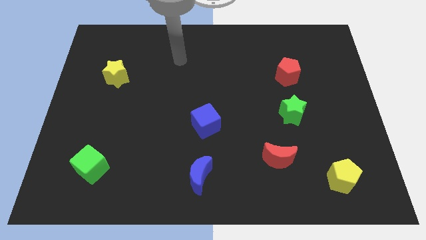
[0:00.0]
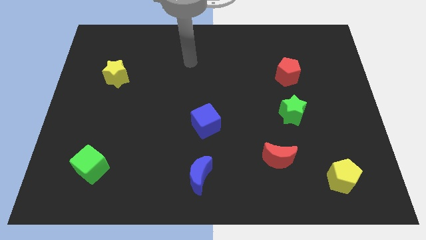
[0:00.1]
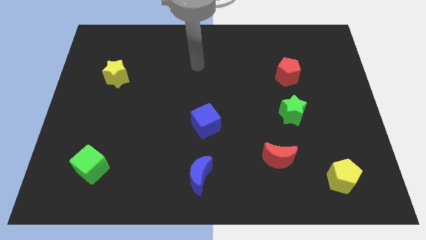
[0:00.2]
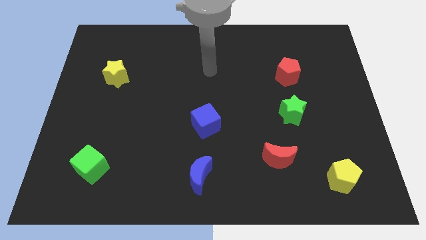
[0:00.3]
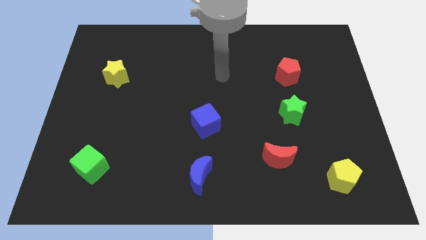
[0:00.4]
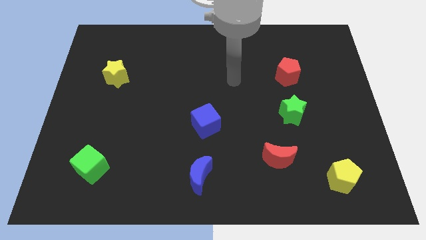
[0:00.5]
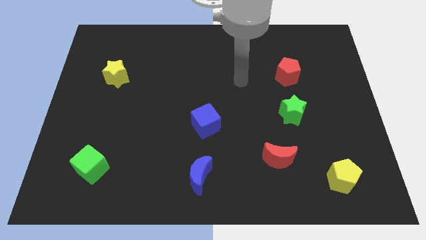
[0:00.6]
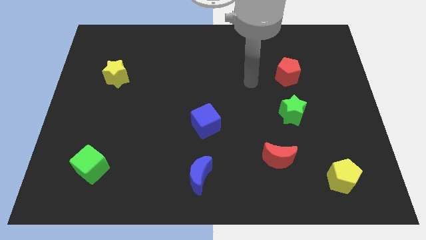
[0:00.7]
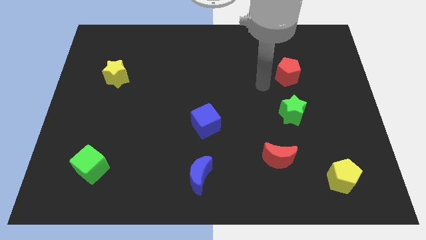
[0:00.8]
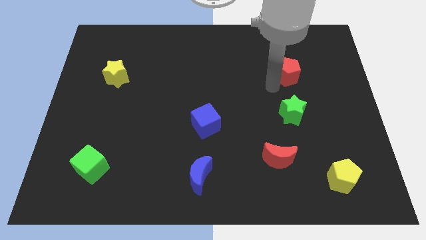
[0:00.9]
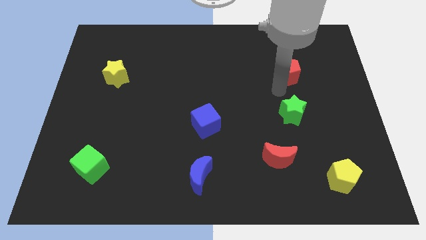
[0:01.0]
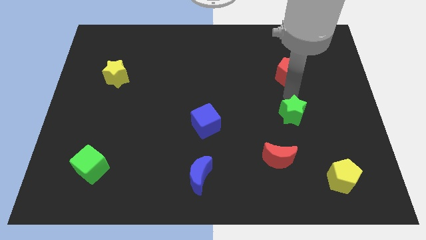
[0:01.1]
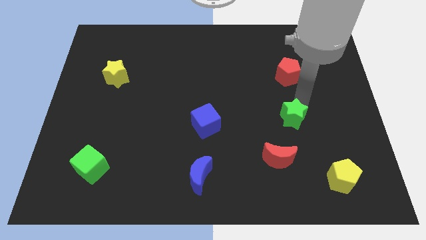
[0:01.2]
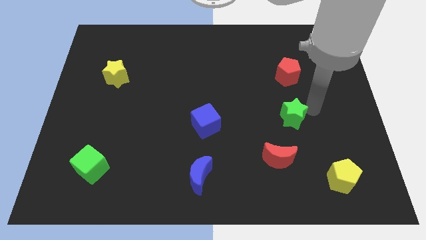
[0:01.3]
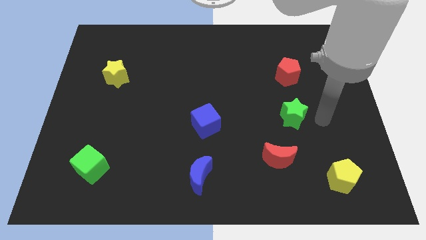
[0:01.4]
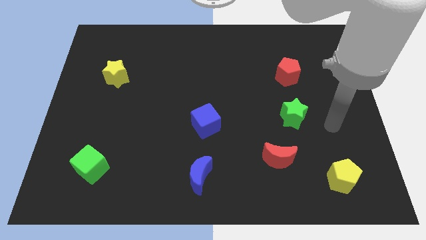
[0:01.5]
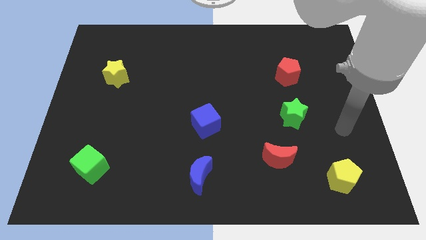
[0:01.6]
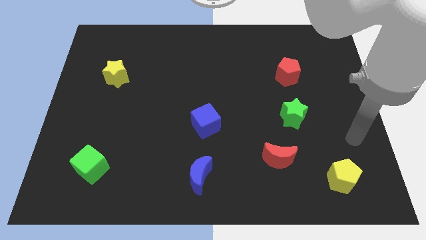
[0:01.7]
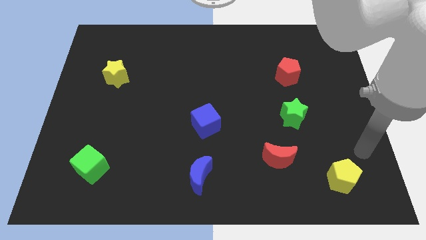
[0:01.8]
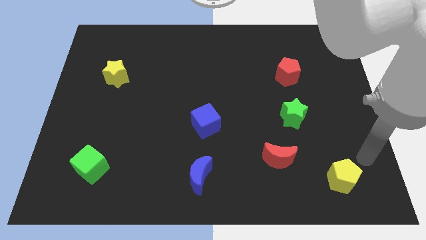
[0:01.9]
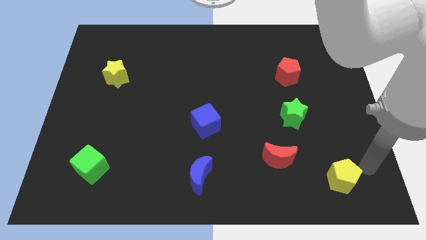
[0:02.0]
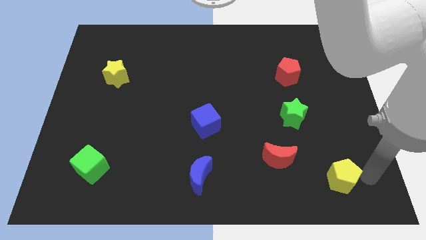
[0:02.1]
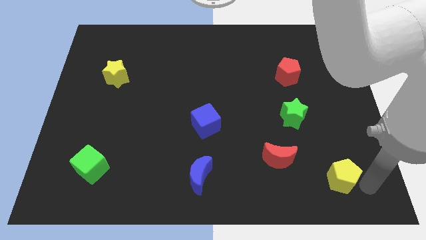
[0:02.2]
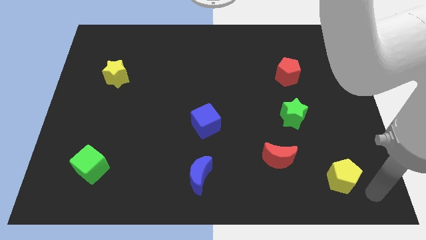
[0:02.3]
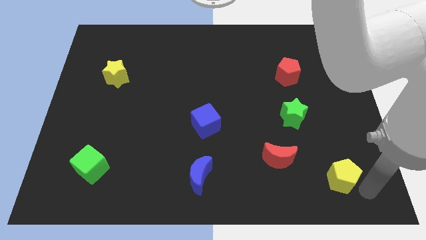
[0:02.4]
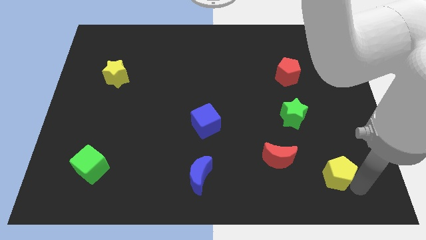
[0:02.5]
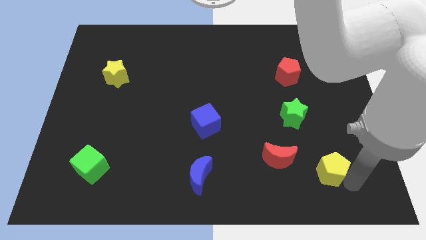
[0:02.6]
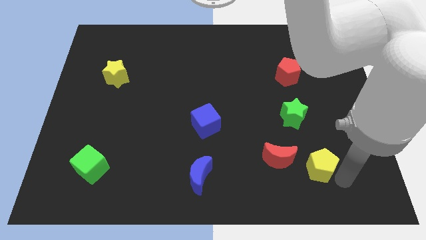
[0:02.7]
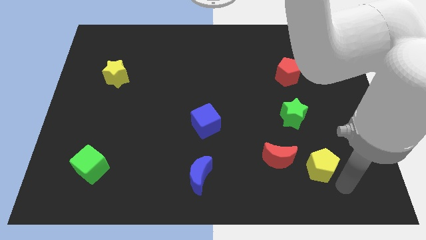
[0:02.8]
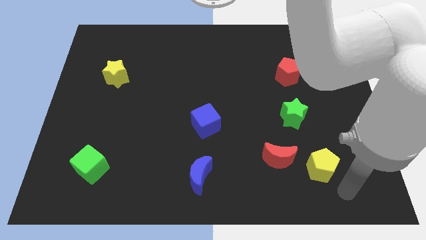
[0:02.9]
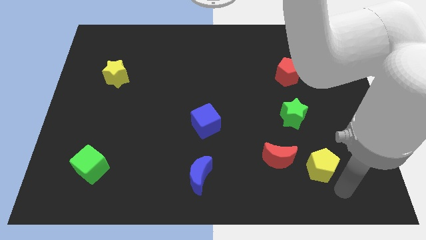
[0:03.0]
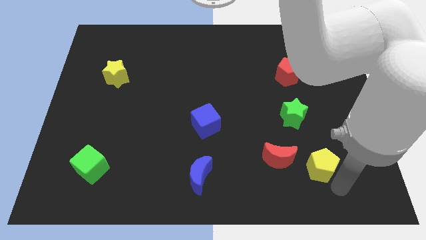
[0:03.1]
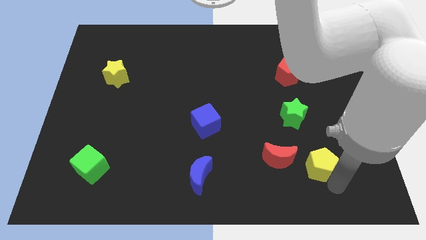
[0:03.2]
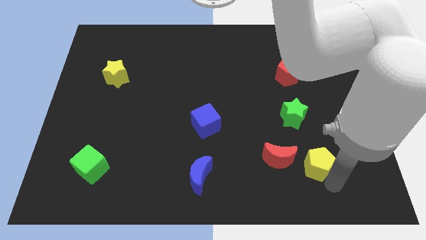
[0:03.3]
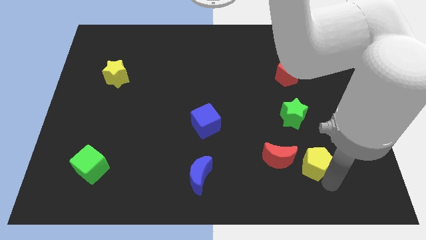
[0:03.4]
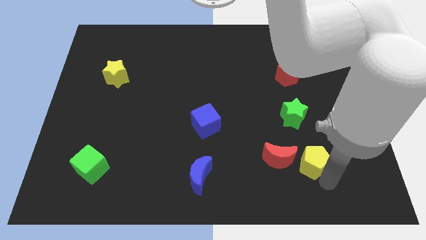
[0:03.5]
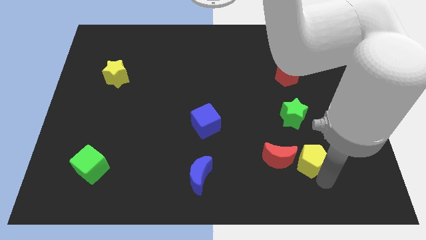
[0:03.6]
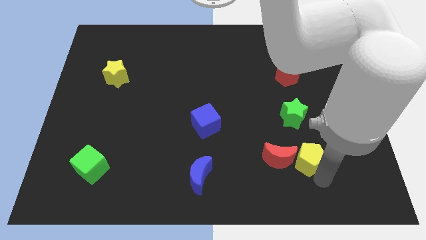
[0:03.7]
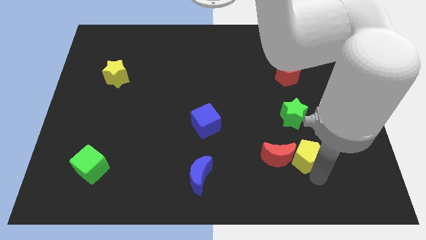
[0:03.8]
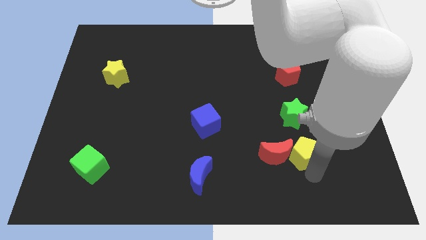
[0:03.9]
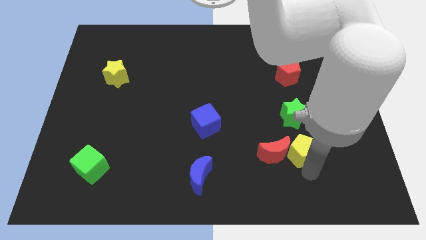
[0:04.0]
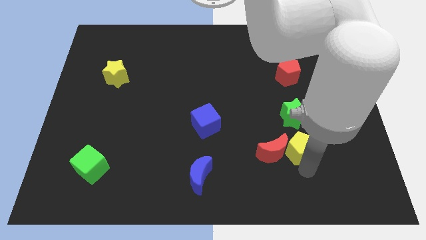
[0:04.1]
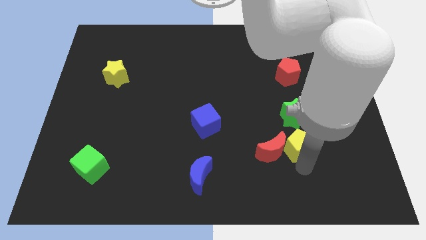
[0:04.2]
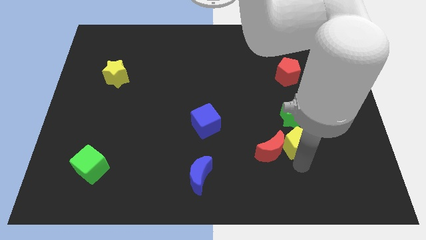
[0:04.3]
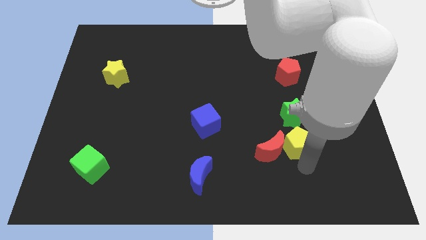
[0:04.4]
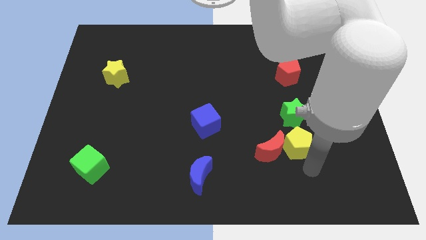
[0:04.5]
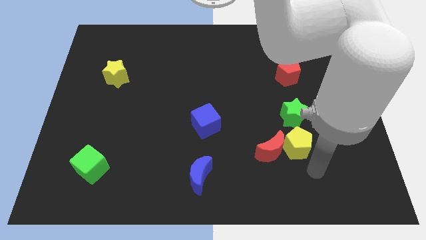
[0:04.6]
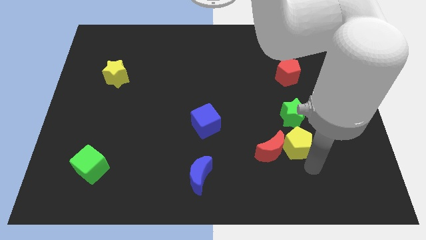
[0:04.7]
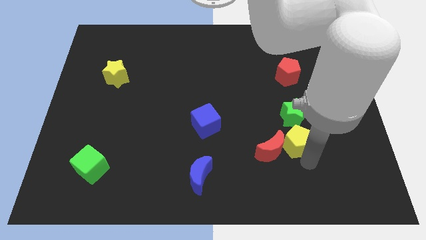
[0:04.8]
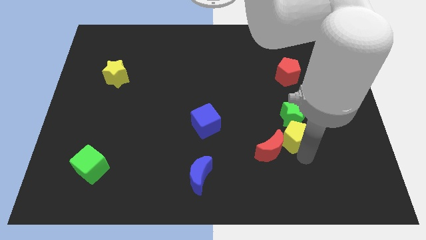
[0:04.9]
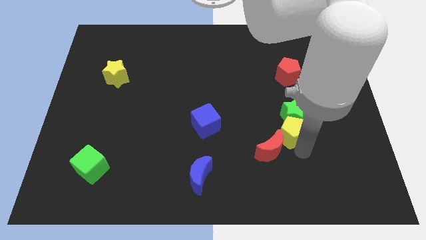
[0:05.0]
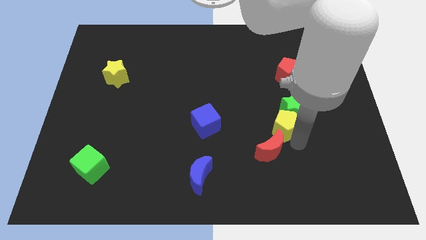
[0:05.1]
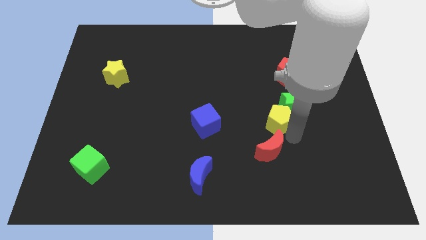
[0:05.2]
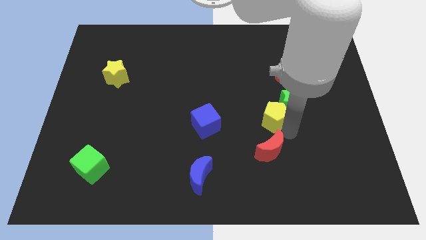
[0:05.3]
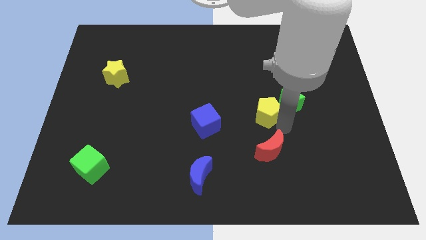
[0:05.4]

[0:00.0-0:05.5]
push the yellow pentagon upwards and to the left

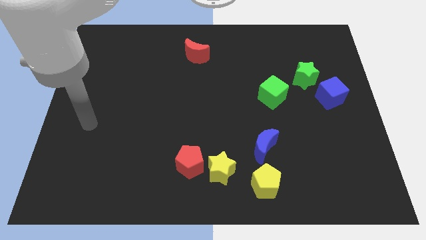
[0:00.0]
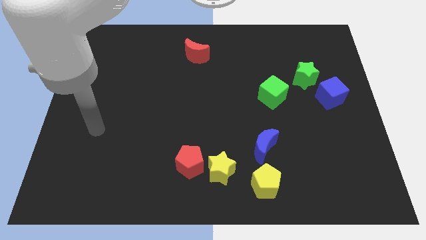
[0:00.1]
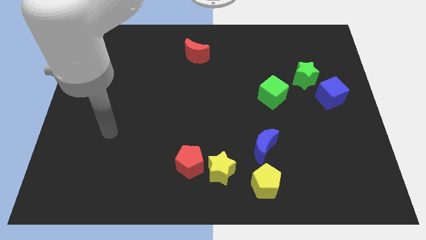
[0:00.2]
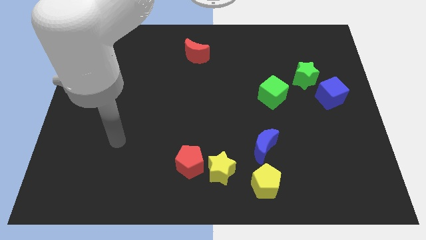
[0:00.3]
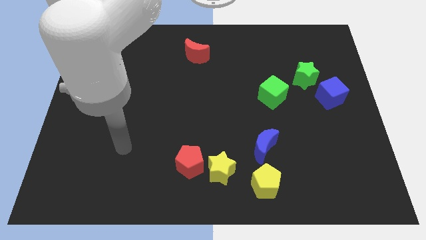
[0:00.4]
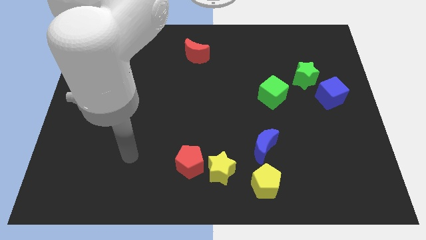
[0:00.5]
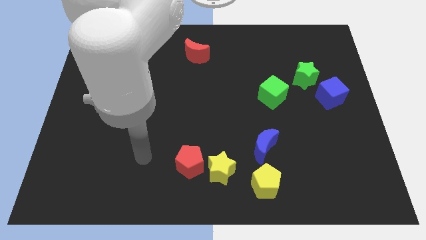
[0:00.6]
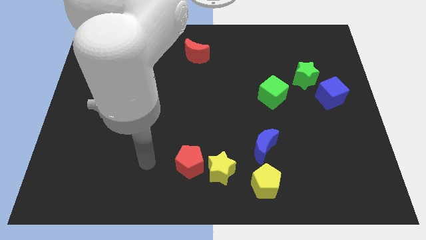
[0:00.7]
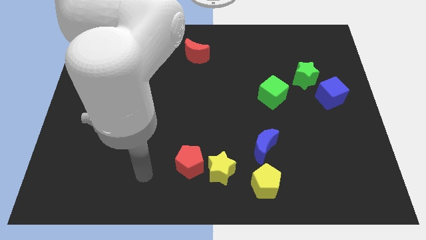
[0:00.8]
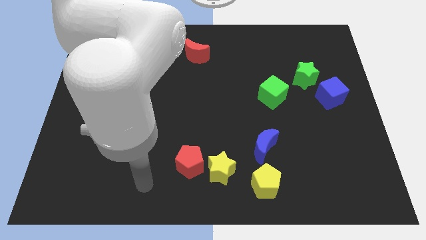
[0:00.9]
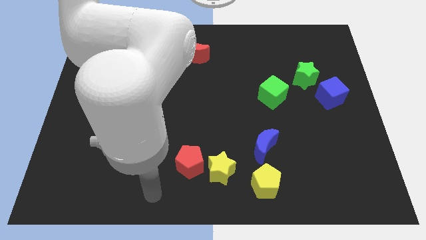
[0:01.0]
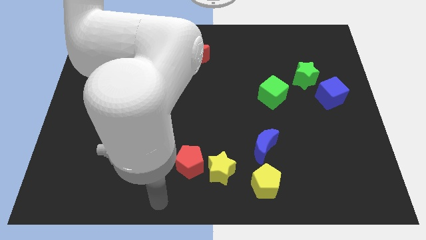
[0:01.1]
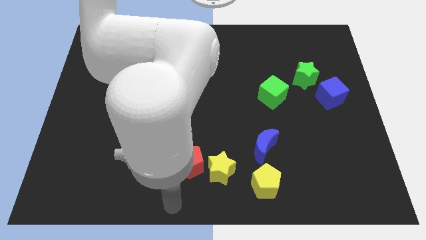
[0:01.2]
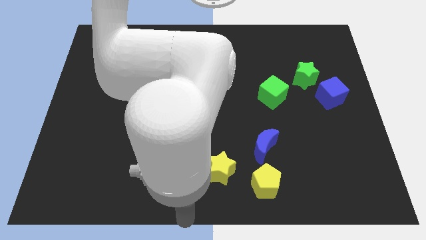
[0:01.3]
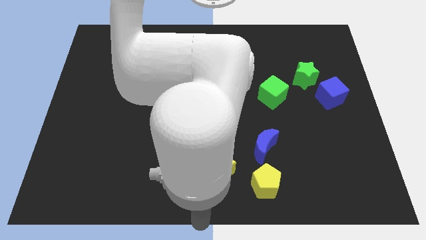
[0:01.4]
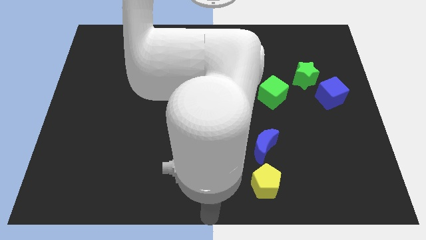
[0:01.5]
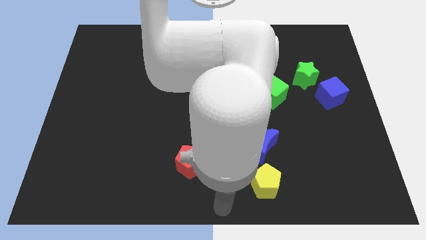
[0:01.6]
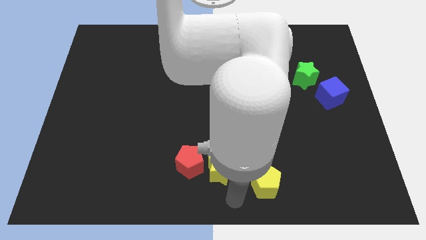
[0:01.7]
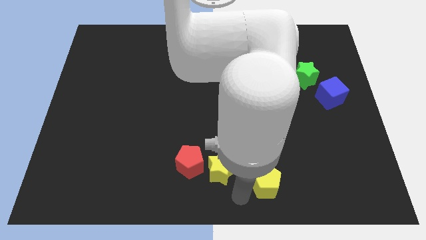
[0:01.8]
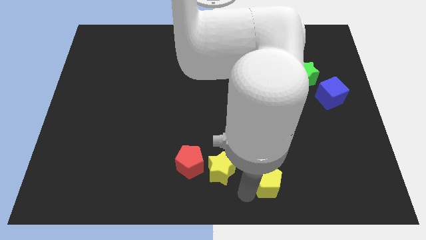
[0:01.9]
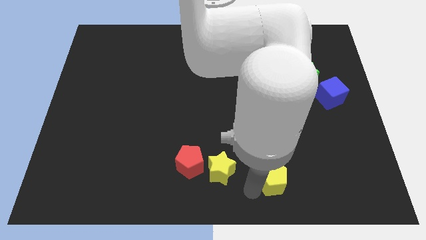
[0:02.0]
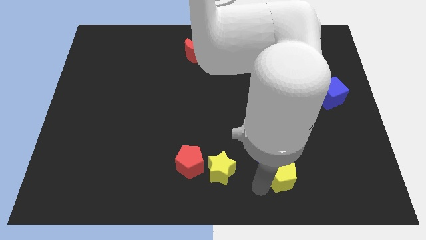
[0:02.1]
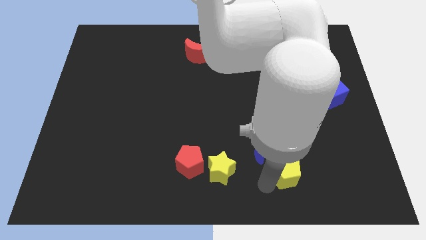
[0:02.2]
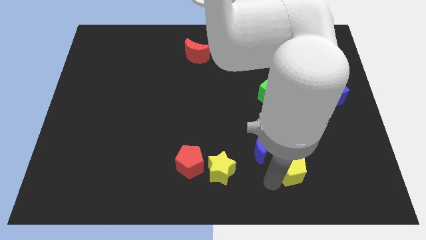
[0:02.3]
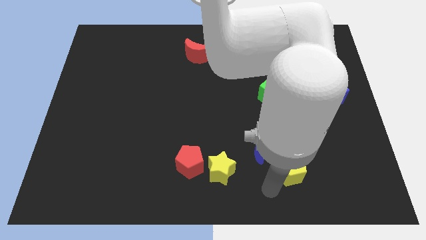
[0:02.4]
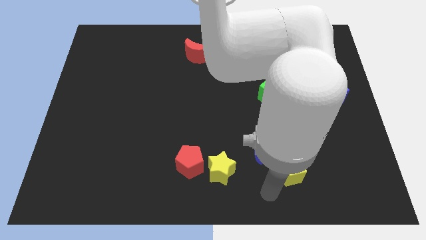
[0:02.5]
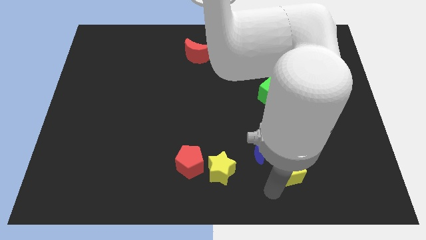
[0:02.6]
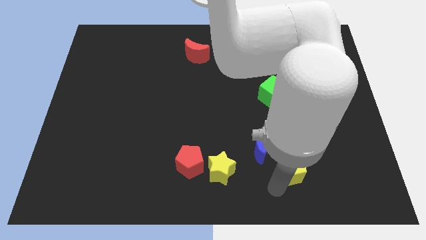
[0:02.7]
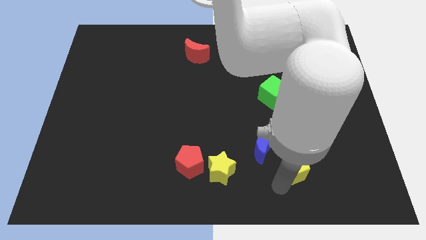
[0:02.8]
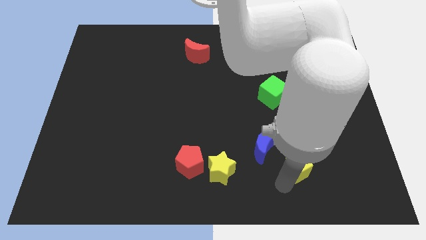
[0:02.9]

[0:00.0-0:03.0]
slightly push the yellow pentagon diagonally upwards and right
